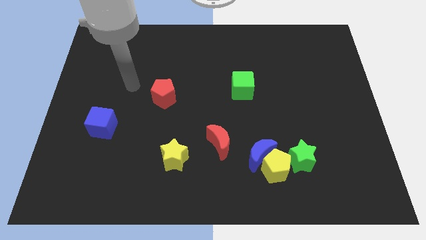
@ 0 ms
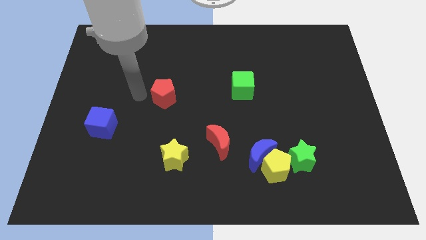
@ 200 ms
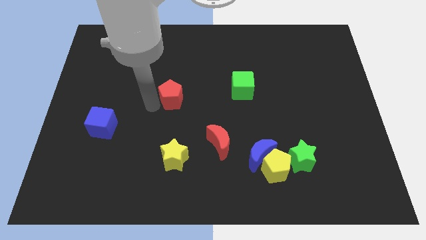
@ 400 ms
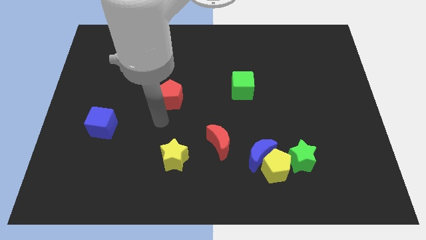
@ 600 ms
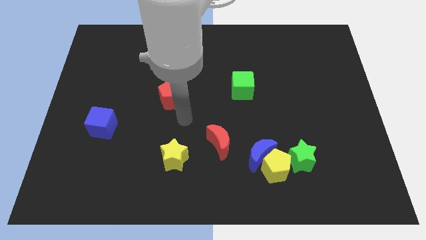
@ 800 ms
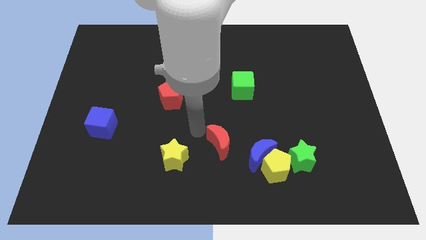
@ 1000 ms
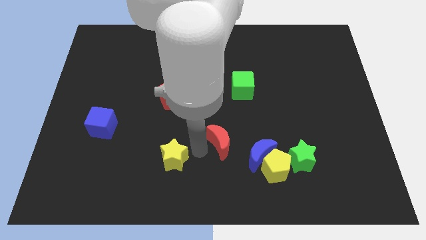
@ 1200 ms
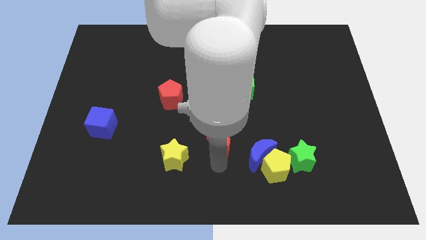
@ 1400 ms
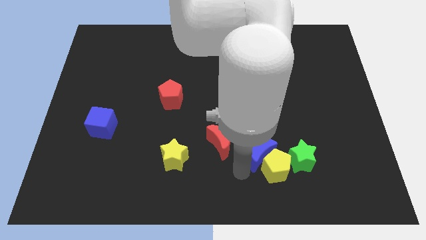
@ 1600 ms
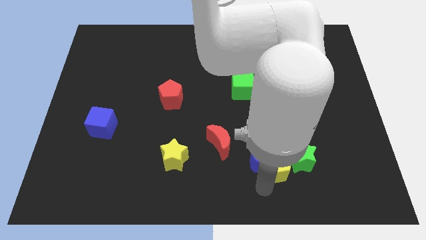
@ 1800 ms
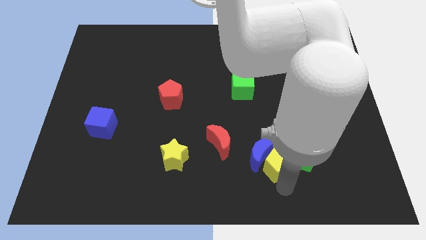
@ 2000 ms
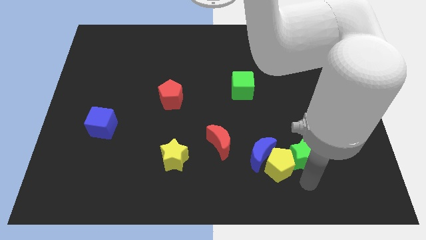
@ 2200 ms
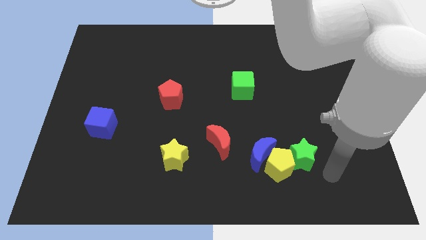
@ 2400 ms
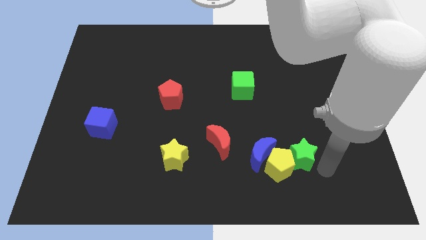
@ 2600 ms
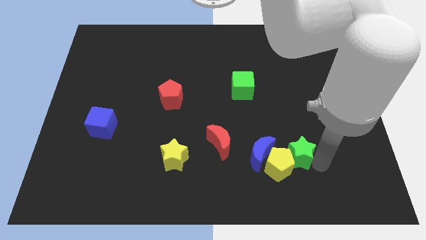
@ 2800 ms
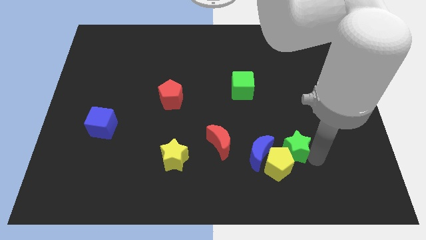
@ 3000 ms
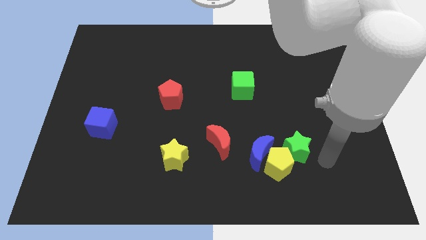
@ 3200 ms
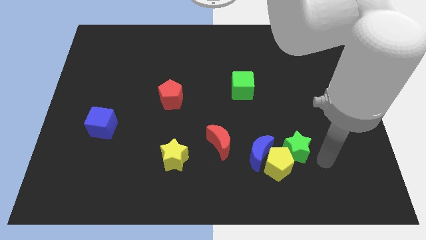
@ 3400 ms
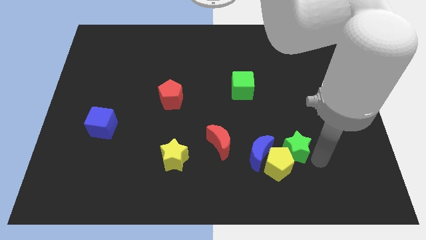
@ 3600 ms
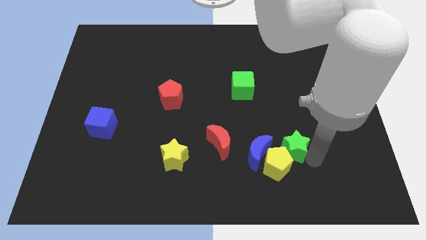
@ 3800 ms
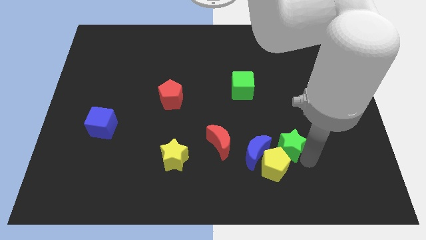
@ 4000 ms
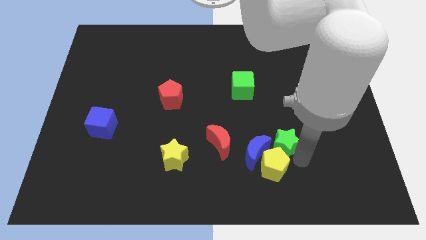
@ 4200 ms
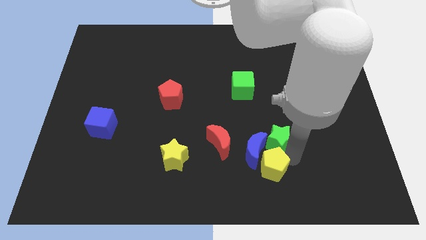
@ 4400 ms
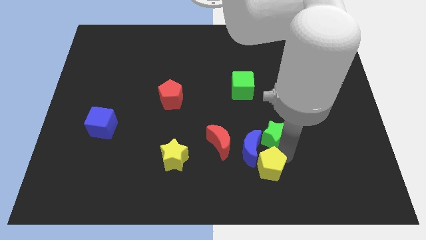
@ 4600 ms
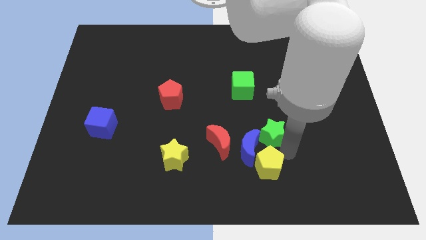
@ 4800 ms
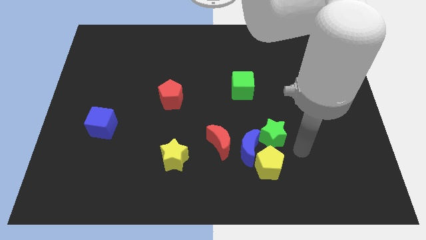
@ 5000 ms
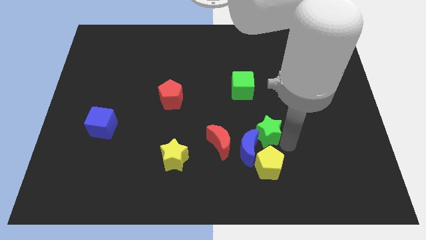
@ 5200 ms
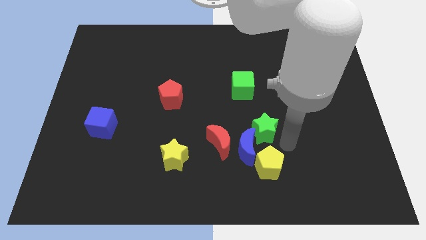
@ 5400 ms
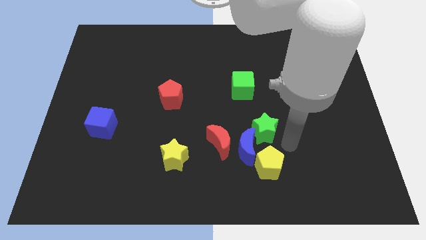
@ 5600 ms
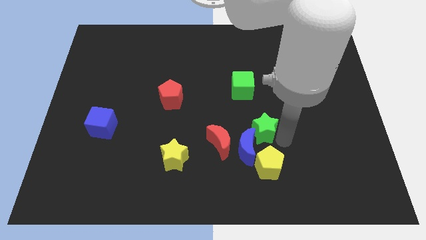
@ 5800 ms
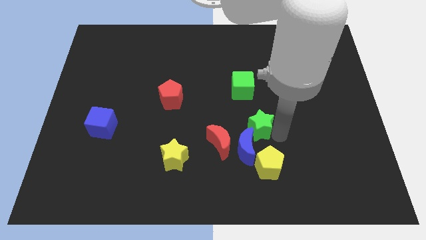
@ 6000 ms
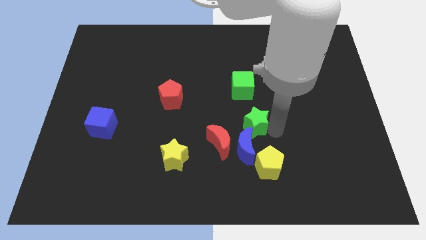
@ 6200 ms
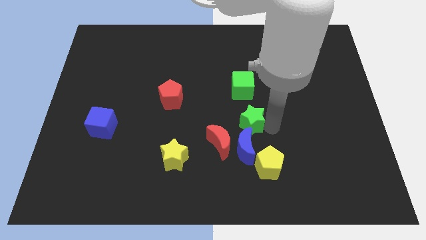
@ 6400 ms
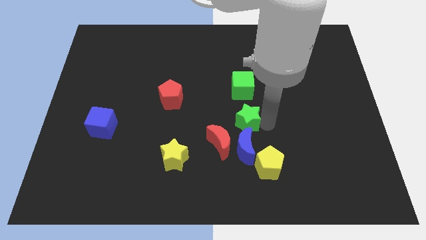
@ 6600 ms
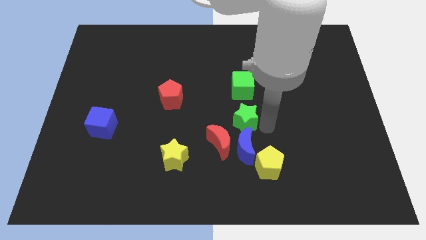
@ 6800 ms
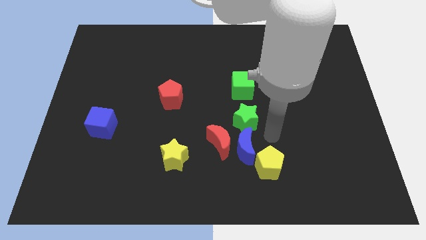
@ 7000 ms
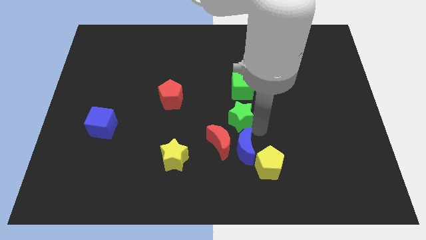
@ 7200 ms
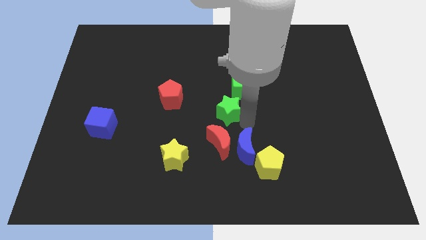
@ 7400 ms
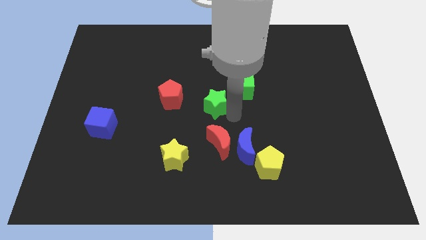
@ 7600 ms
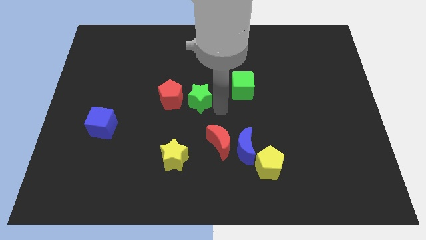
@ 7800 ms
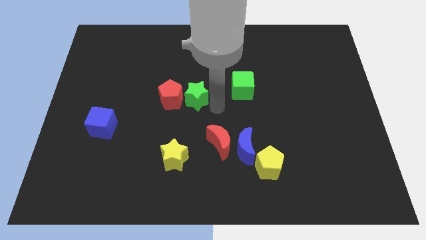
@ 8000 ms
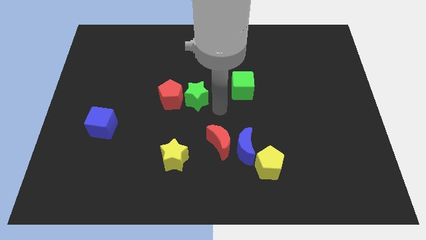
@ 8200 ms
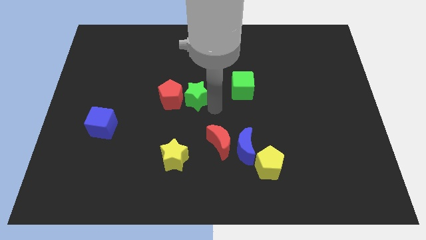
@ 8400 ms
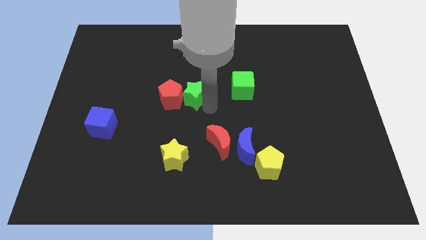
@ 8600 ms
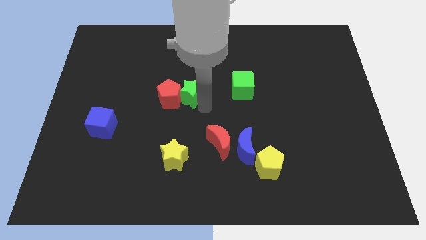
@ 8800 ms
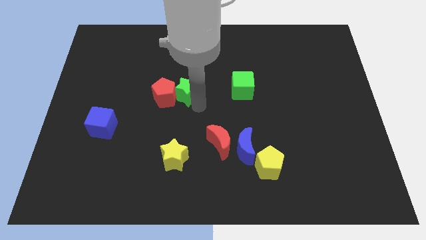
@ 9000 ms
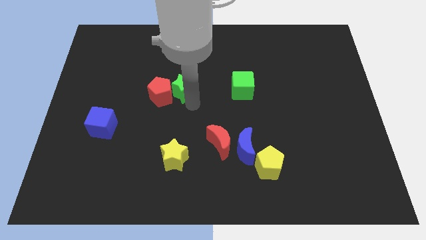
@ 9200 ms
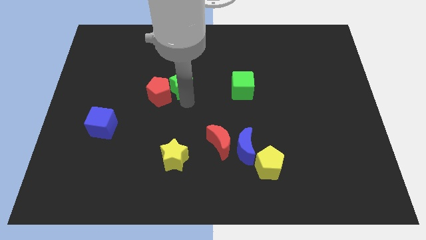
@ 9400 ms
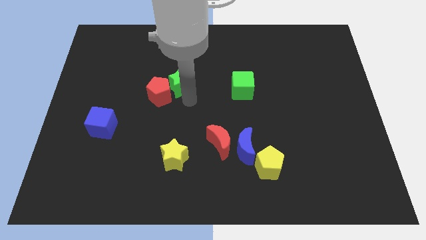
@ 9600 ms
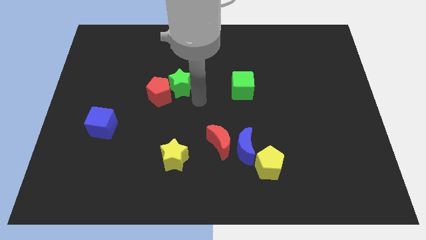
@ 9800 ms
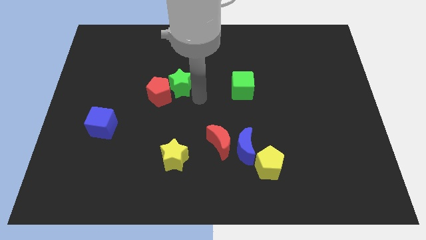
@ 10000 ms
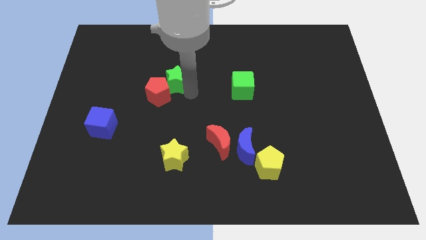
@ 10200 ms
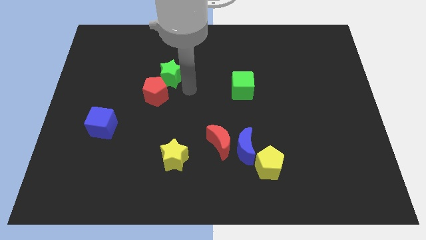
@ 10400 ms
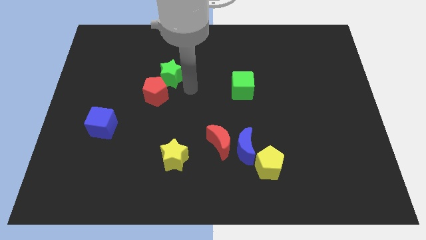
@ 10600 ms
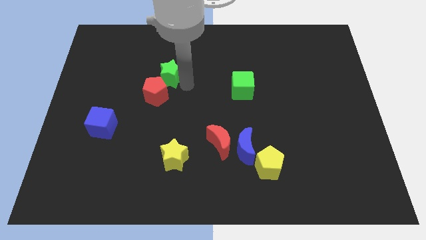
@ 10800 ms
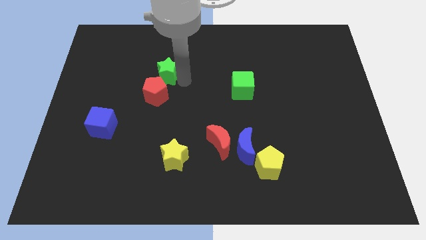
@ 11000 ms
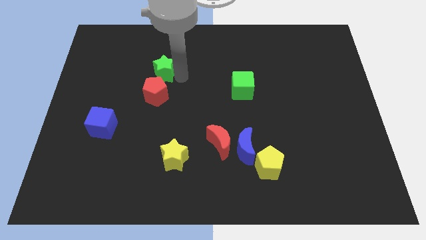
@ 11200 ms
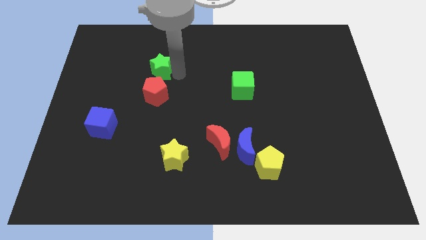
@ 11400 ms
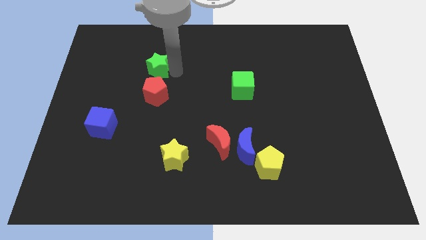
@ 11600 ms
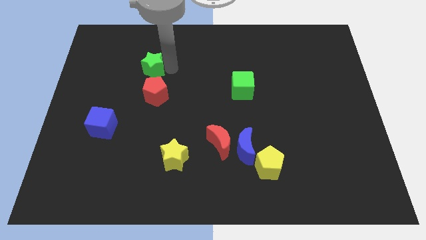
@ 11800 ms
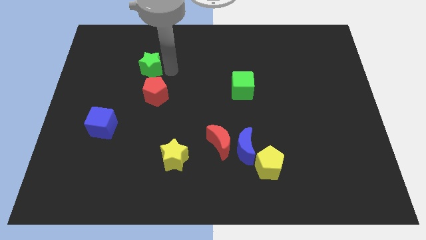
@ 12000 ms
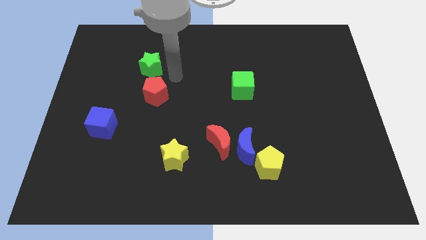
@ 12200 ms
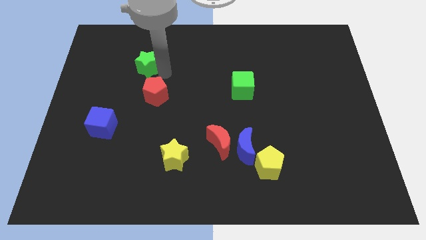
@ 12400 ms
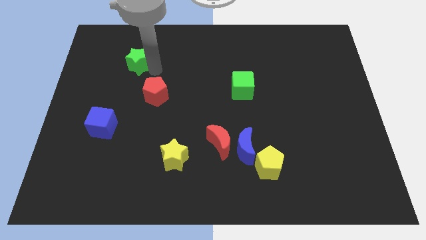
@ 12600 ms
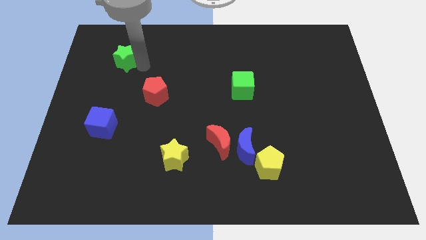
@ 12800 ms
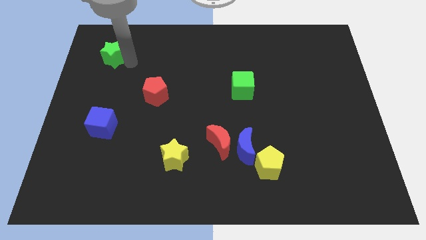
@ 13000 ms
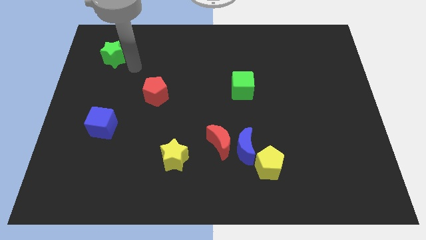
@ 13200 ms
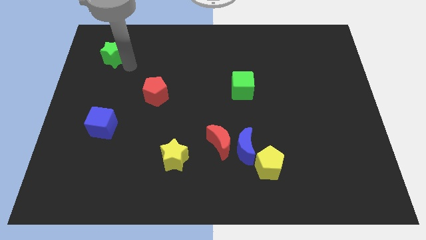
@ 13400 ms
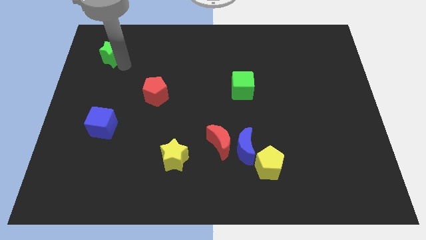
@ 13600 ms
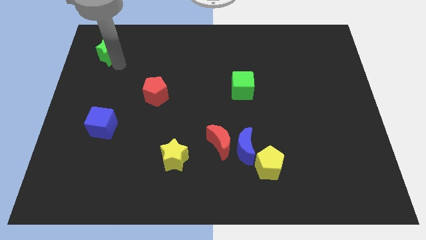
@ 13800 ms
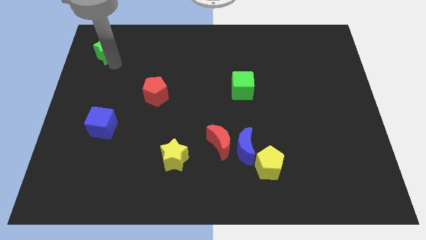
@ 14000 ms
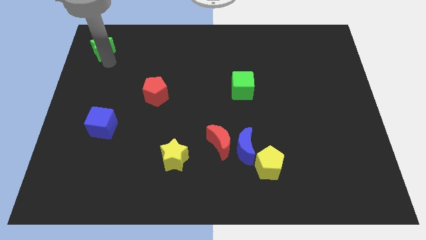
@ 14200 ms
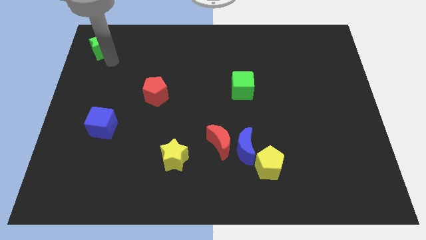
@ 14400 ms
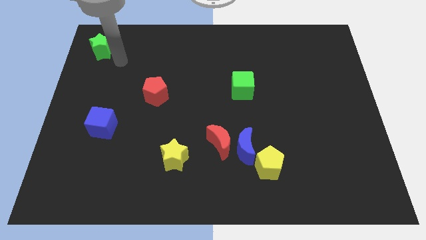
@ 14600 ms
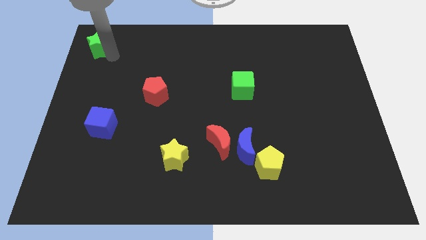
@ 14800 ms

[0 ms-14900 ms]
put the green star to the upper left corner
